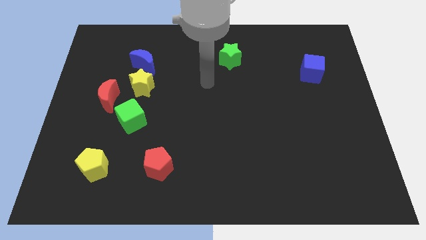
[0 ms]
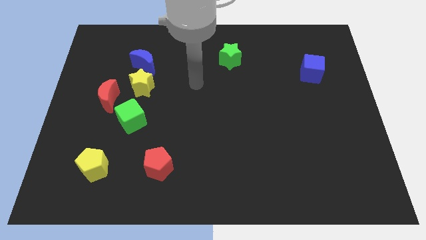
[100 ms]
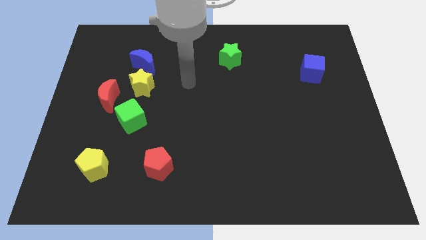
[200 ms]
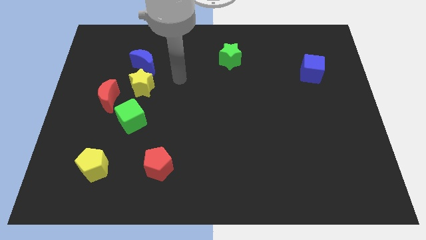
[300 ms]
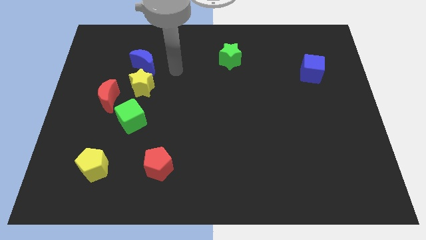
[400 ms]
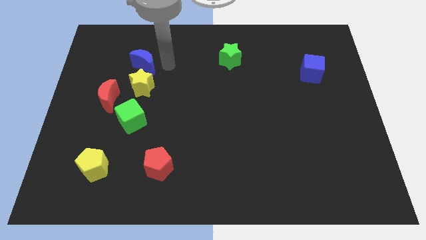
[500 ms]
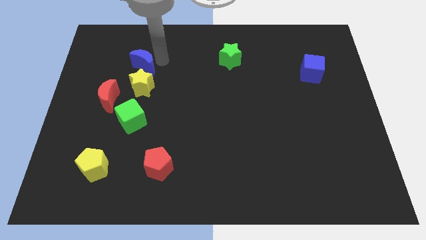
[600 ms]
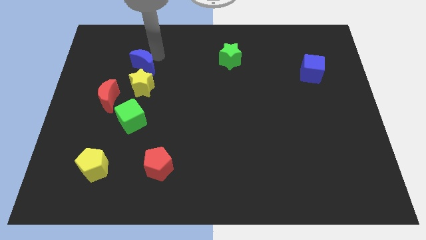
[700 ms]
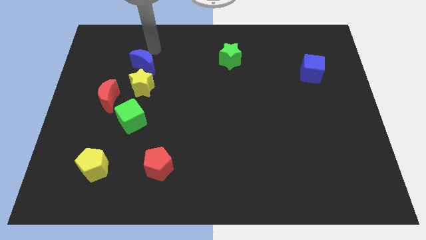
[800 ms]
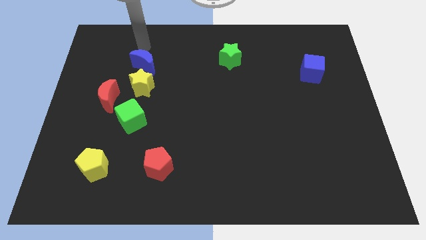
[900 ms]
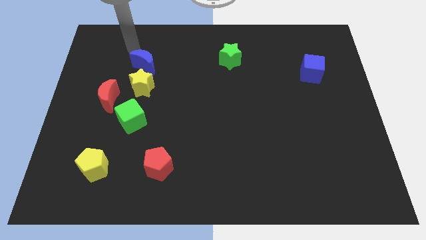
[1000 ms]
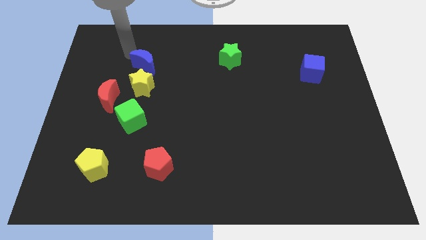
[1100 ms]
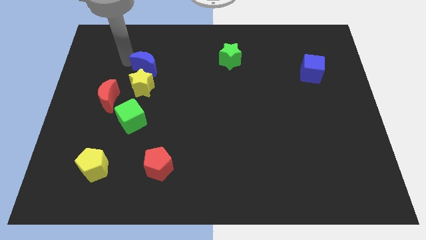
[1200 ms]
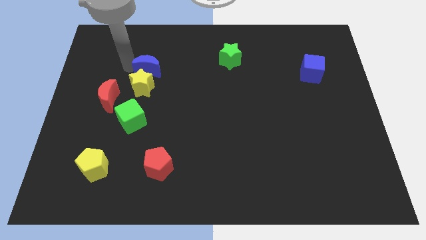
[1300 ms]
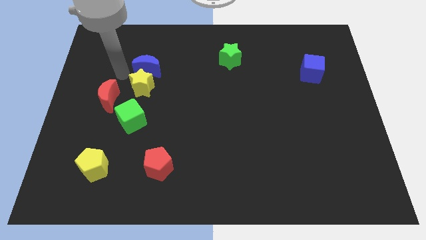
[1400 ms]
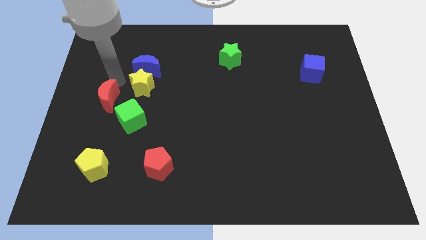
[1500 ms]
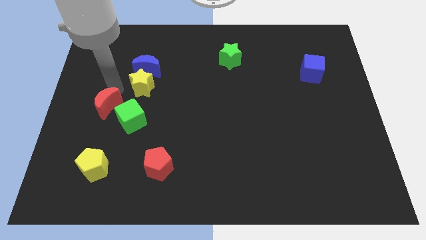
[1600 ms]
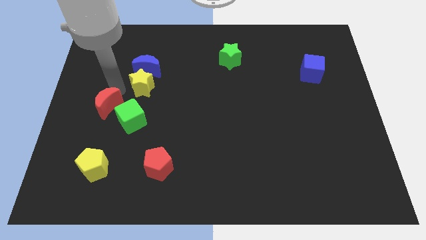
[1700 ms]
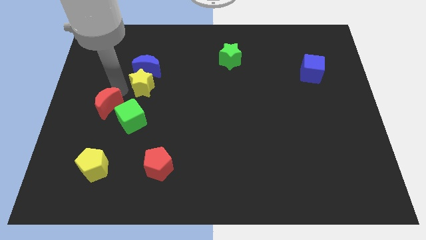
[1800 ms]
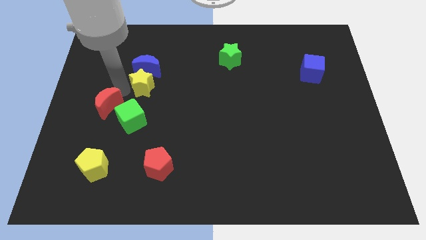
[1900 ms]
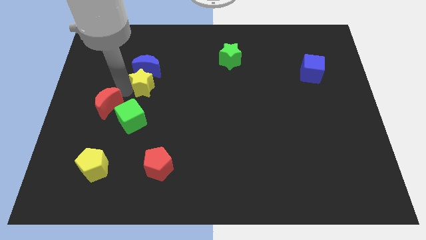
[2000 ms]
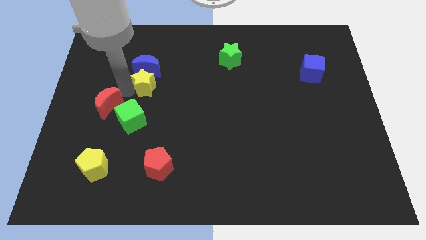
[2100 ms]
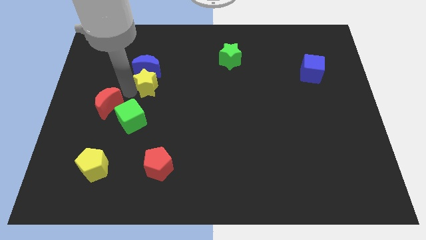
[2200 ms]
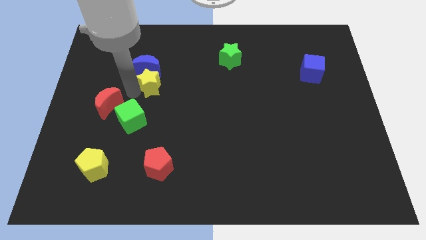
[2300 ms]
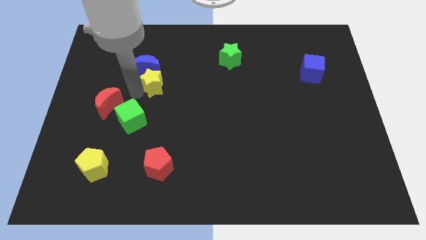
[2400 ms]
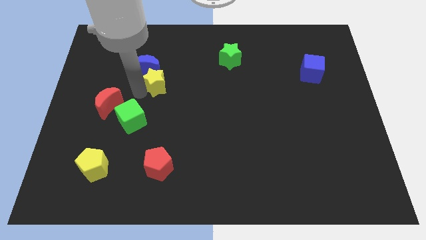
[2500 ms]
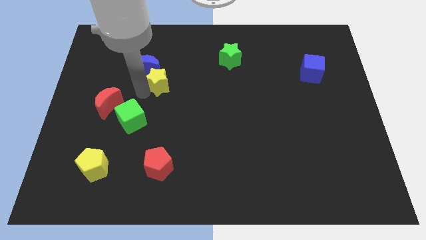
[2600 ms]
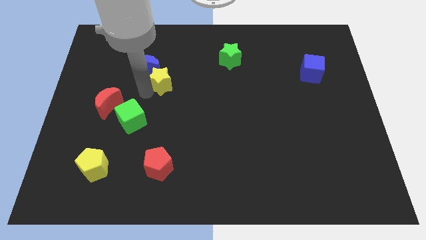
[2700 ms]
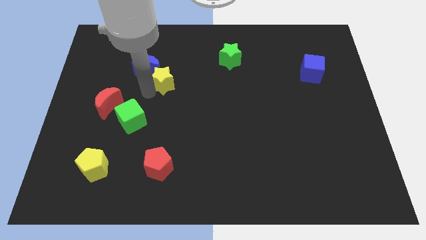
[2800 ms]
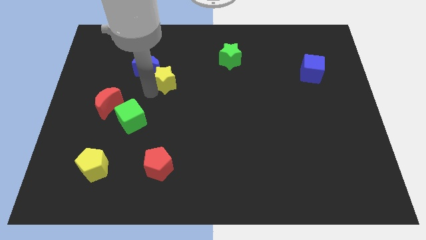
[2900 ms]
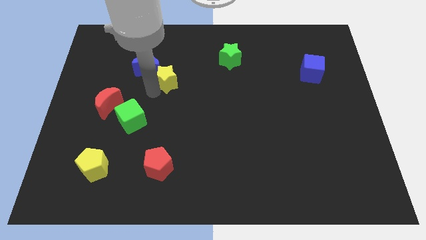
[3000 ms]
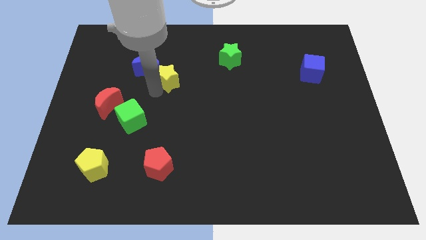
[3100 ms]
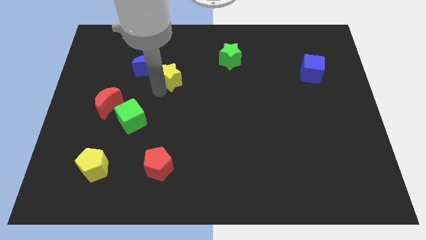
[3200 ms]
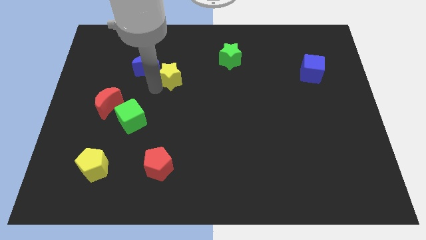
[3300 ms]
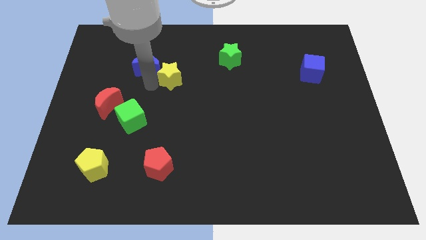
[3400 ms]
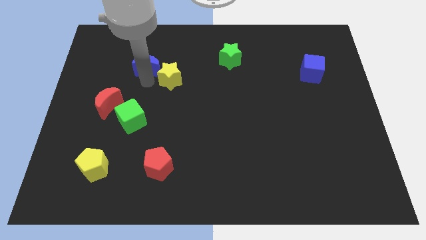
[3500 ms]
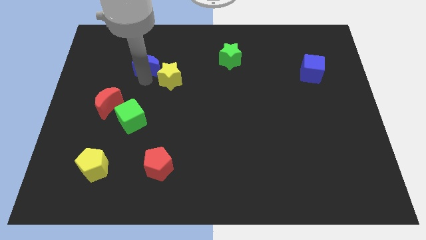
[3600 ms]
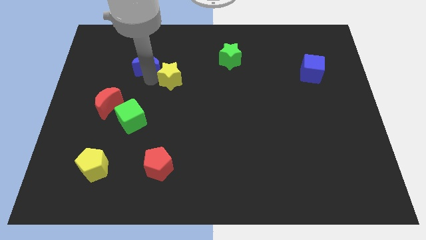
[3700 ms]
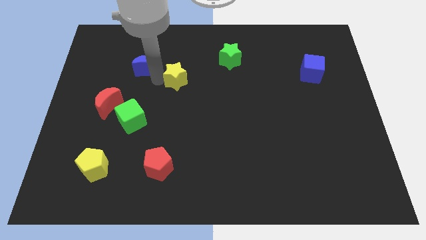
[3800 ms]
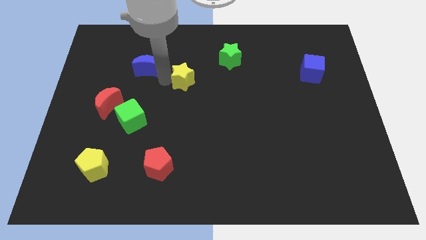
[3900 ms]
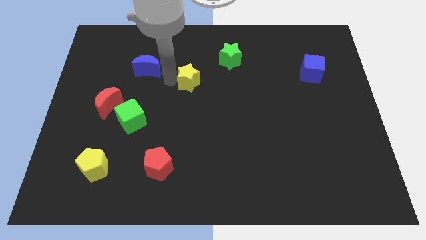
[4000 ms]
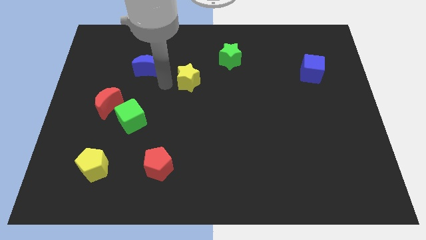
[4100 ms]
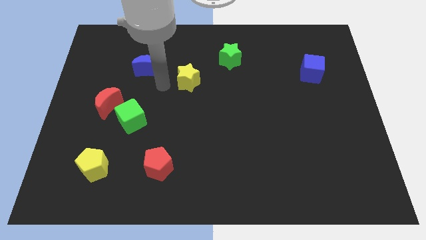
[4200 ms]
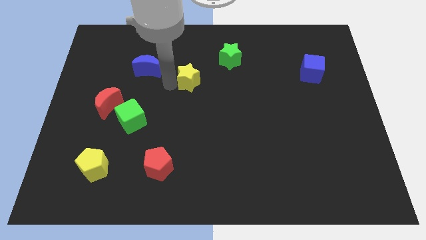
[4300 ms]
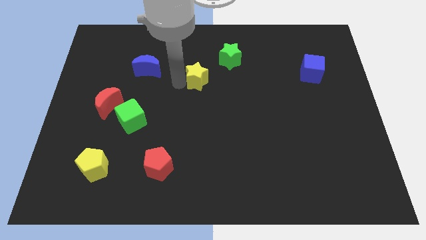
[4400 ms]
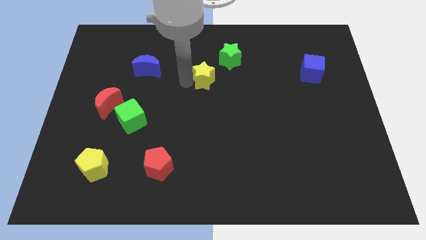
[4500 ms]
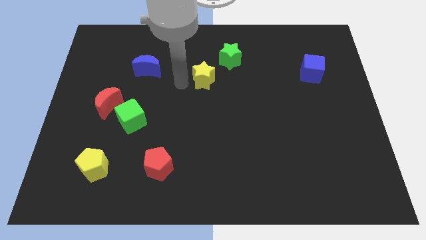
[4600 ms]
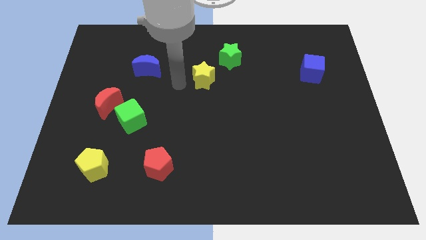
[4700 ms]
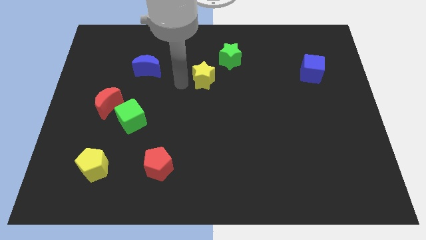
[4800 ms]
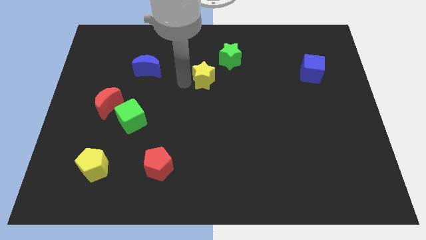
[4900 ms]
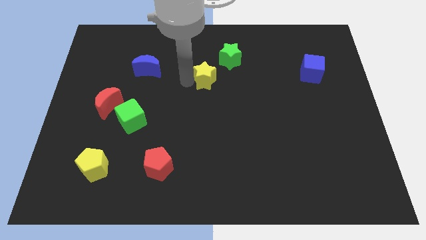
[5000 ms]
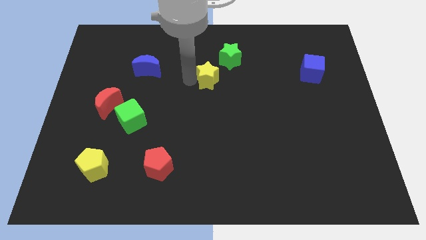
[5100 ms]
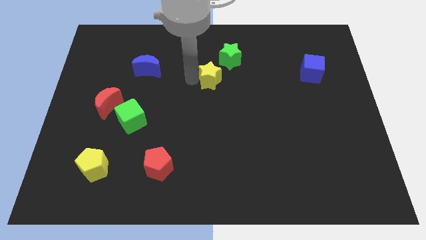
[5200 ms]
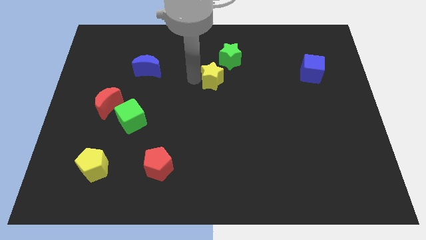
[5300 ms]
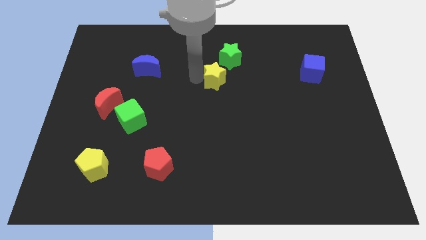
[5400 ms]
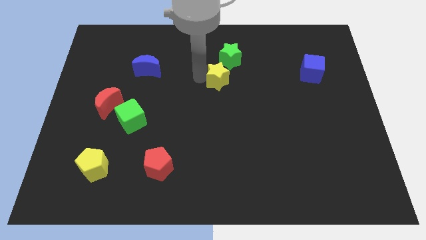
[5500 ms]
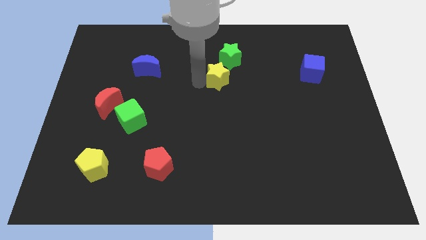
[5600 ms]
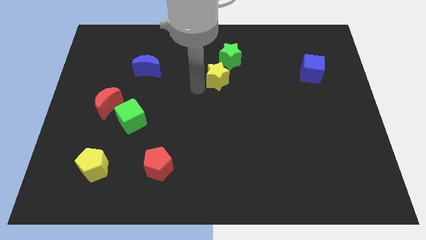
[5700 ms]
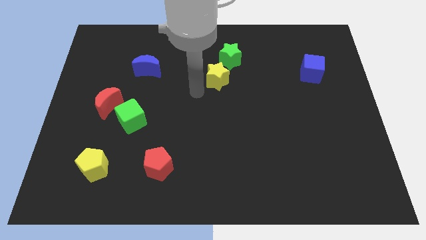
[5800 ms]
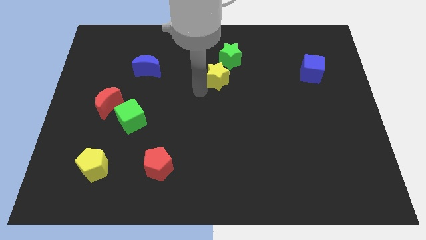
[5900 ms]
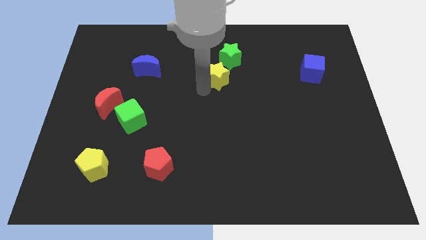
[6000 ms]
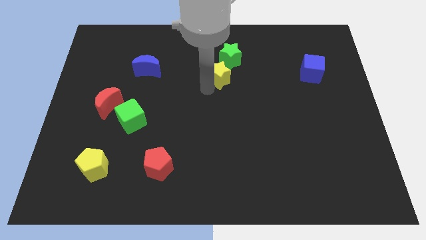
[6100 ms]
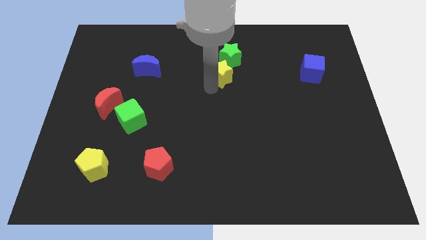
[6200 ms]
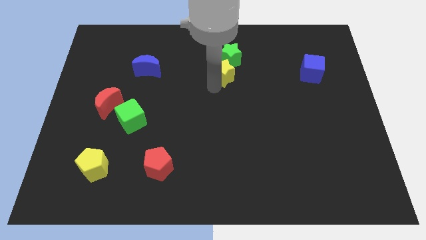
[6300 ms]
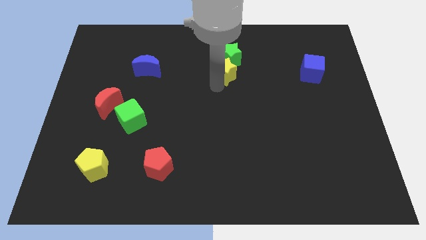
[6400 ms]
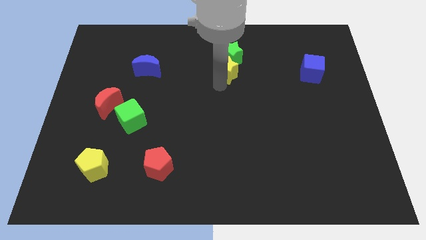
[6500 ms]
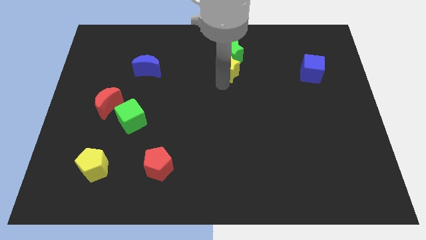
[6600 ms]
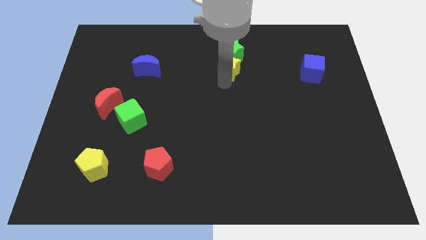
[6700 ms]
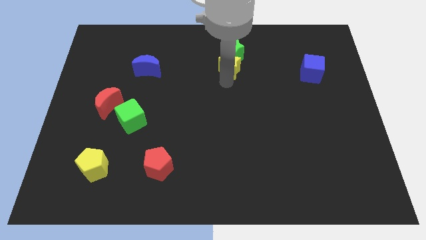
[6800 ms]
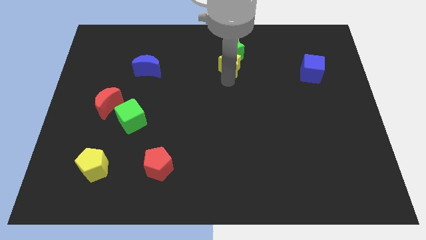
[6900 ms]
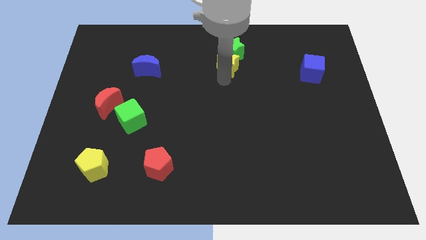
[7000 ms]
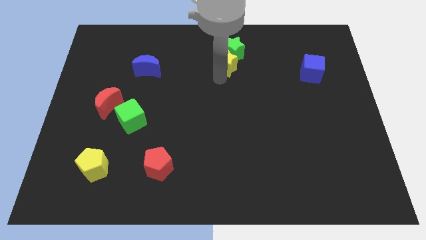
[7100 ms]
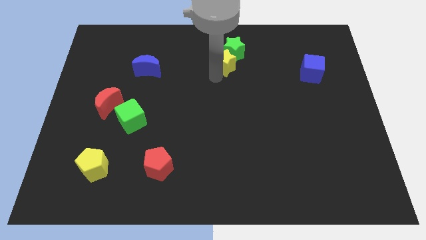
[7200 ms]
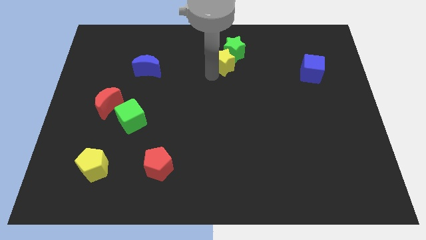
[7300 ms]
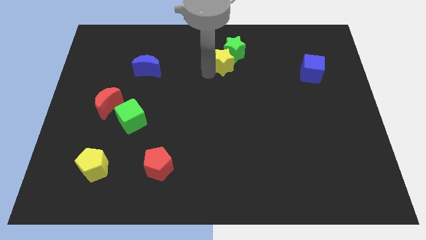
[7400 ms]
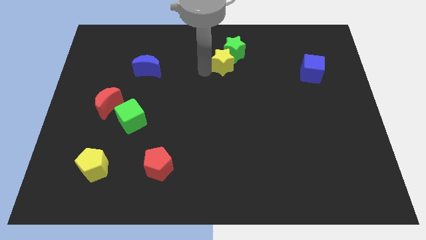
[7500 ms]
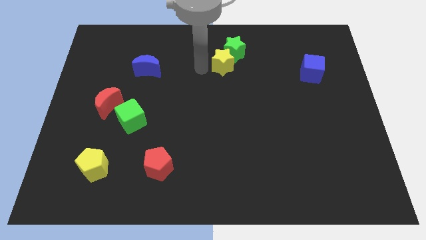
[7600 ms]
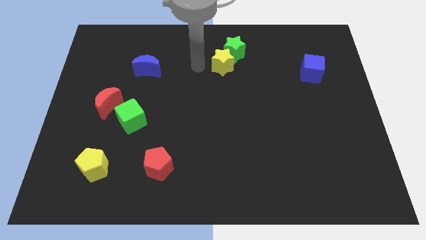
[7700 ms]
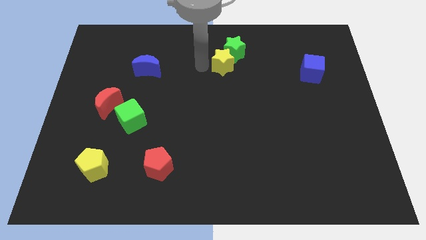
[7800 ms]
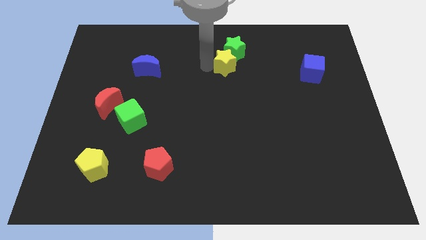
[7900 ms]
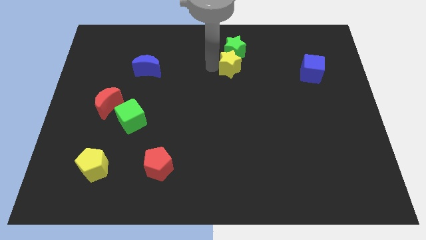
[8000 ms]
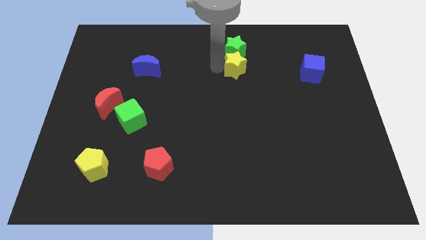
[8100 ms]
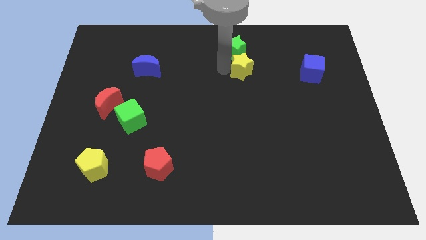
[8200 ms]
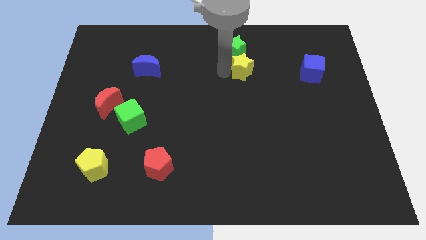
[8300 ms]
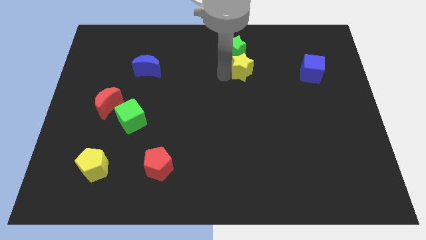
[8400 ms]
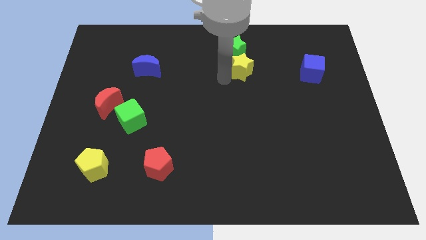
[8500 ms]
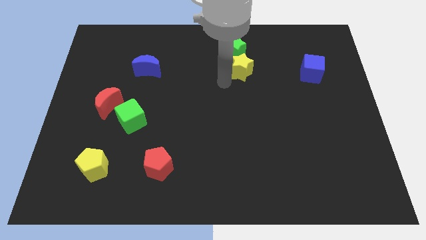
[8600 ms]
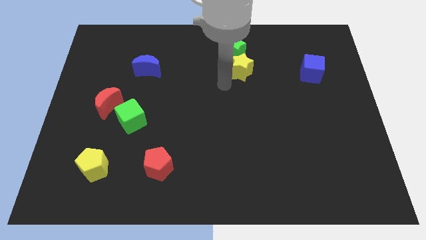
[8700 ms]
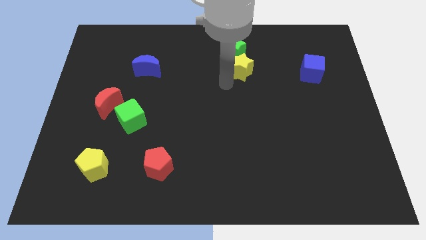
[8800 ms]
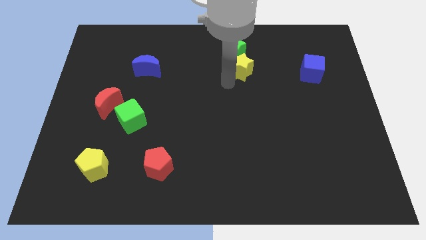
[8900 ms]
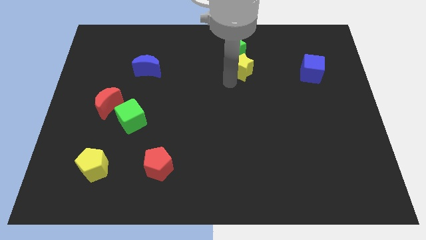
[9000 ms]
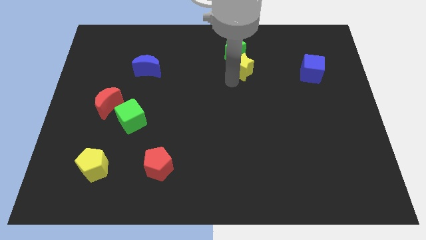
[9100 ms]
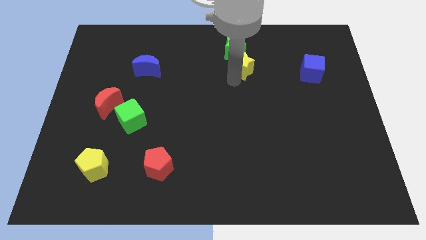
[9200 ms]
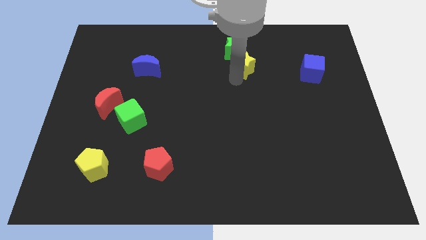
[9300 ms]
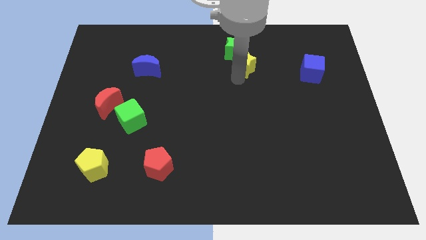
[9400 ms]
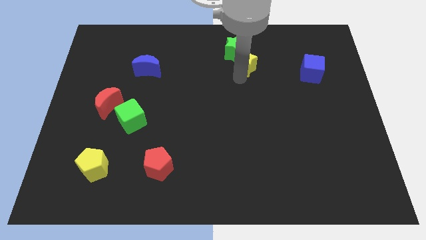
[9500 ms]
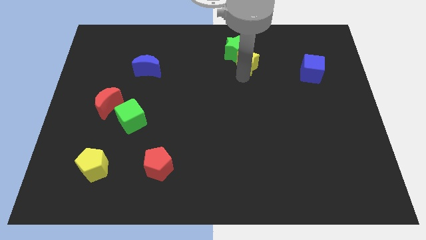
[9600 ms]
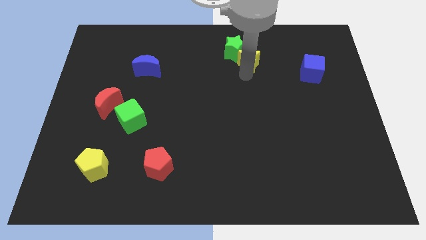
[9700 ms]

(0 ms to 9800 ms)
put the yellow star to the right side of the green star
